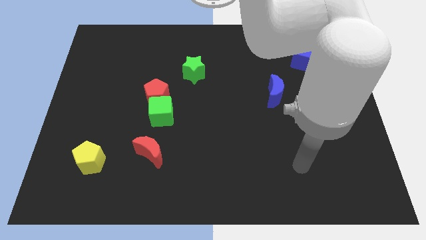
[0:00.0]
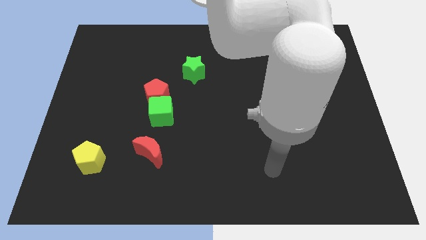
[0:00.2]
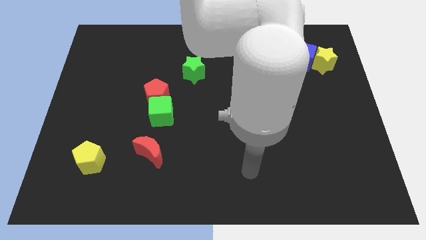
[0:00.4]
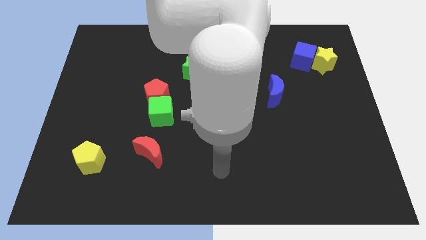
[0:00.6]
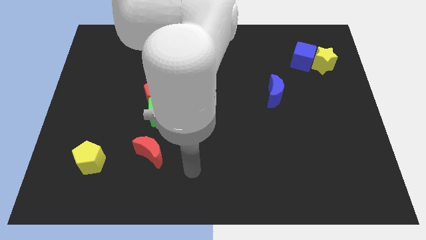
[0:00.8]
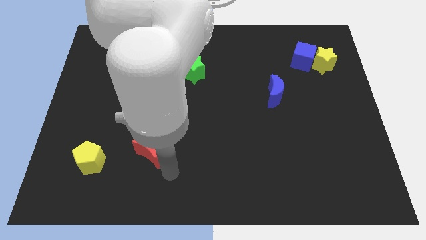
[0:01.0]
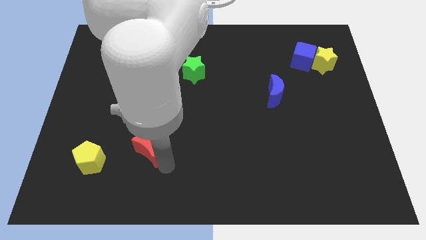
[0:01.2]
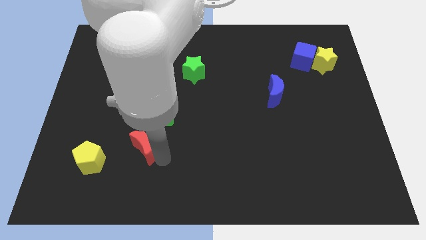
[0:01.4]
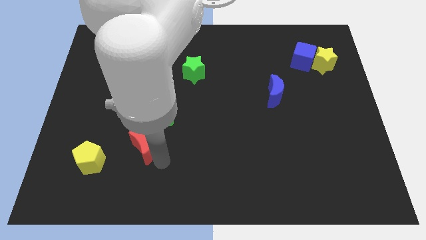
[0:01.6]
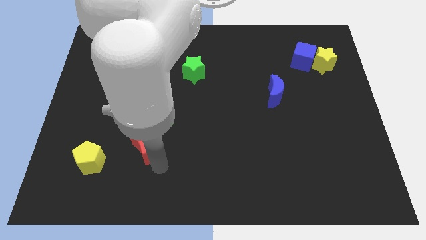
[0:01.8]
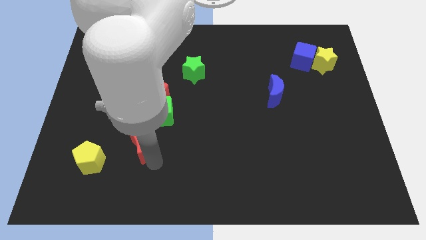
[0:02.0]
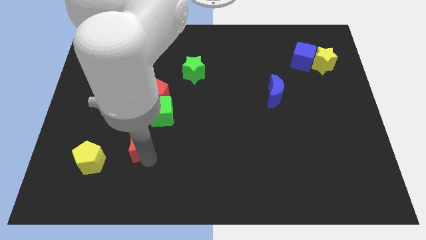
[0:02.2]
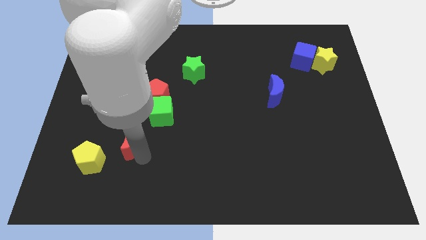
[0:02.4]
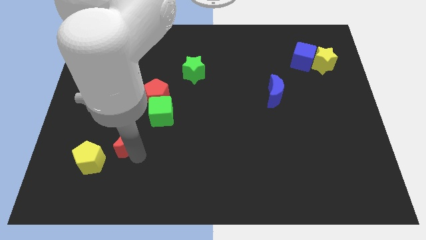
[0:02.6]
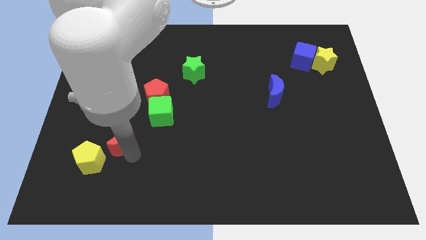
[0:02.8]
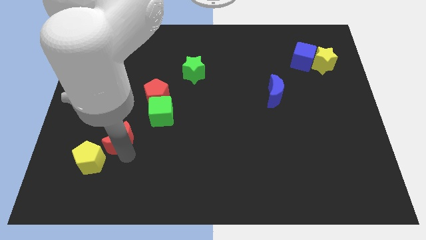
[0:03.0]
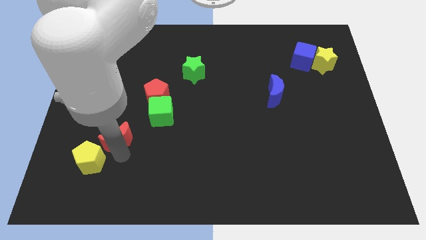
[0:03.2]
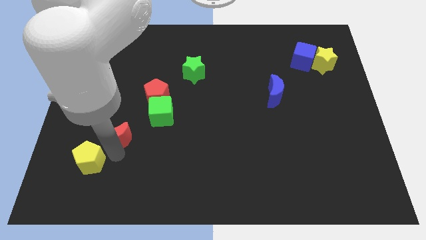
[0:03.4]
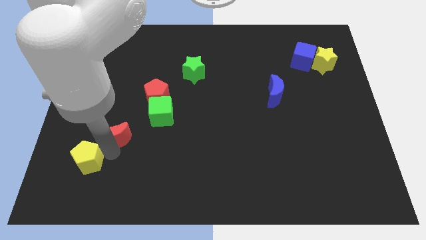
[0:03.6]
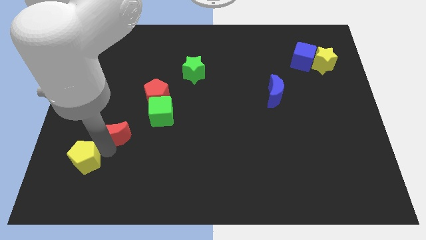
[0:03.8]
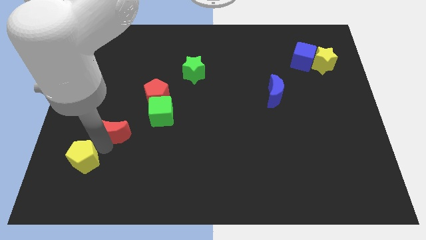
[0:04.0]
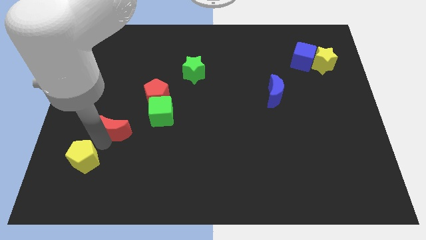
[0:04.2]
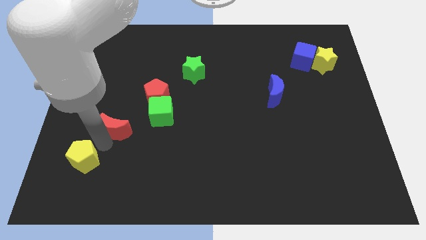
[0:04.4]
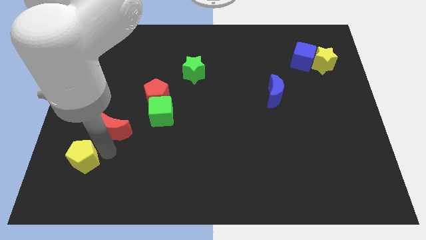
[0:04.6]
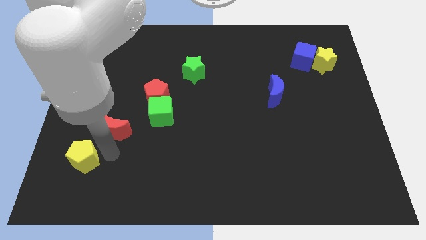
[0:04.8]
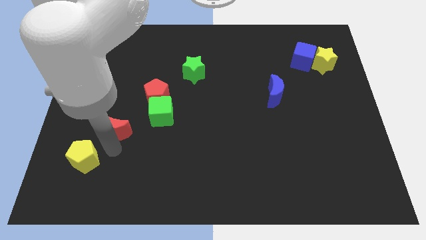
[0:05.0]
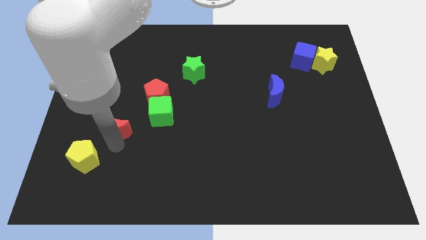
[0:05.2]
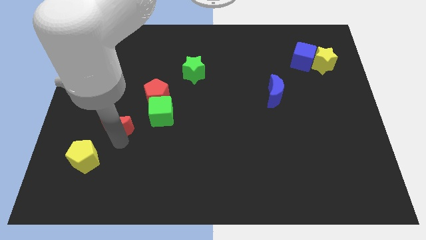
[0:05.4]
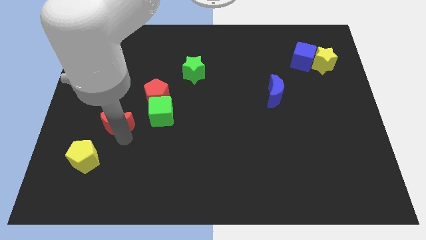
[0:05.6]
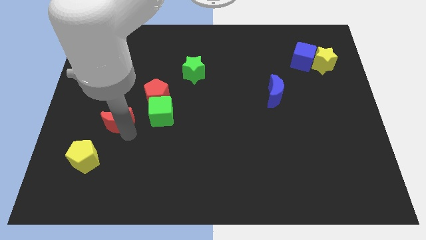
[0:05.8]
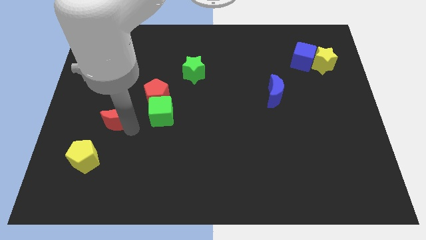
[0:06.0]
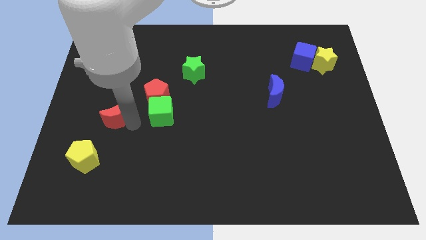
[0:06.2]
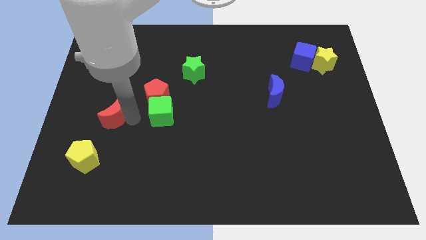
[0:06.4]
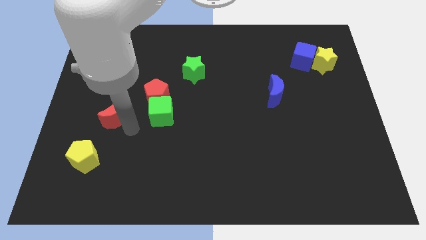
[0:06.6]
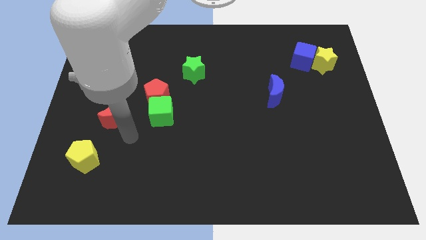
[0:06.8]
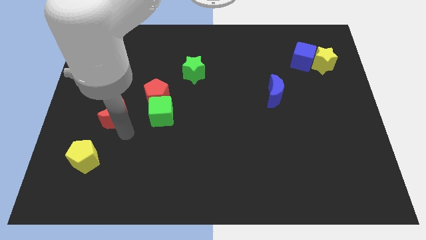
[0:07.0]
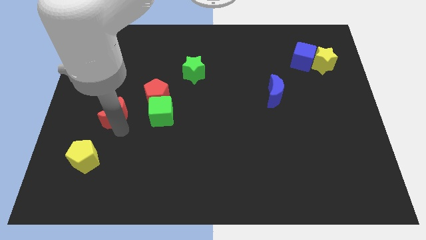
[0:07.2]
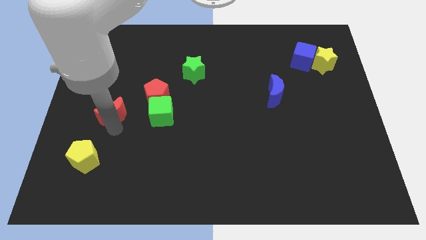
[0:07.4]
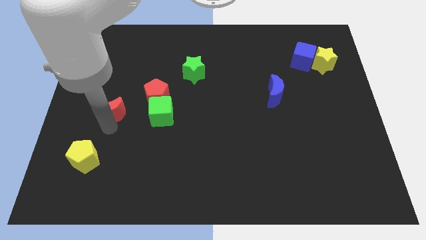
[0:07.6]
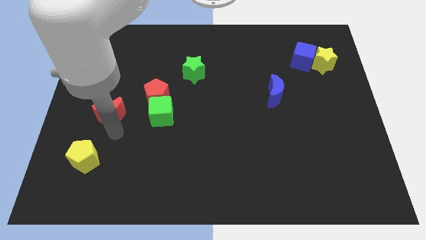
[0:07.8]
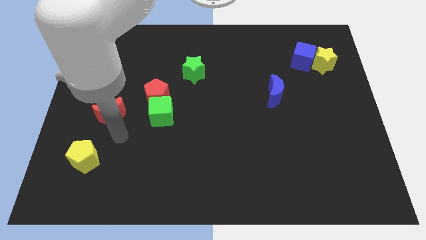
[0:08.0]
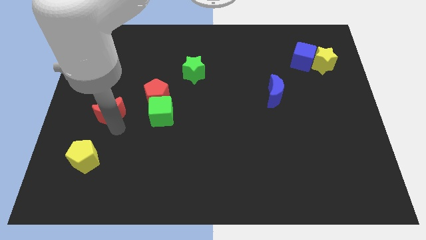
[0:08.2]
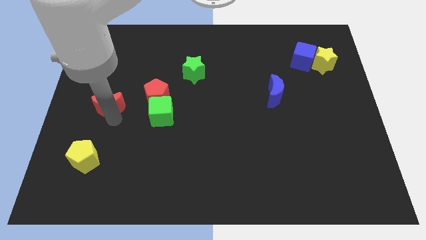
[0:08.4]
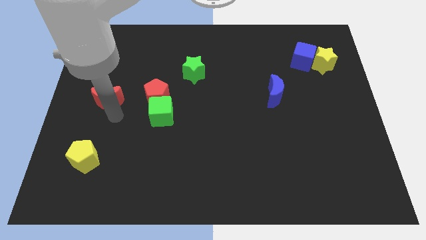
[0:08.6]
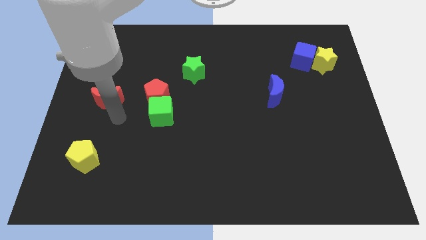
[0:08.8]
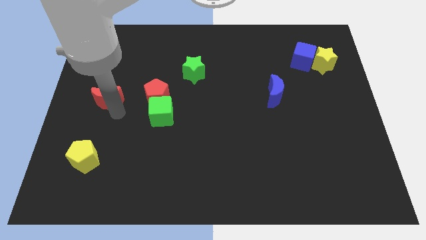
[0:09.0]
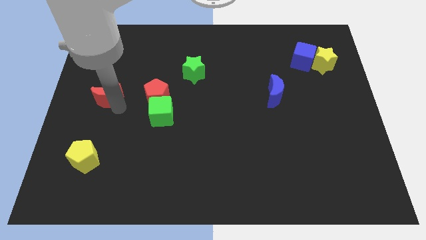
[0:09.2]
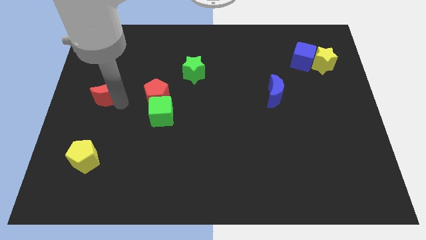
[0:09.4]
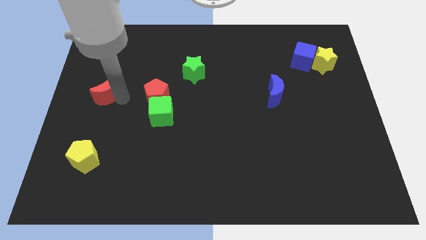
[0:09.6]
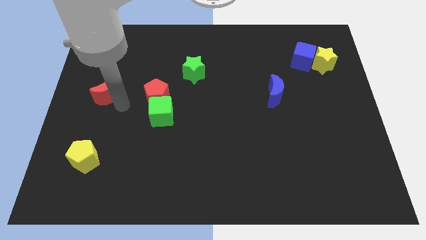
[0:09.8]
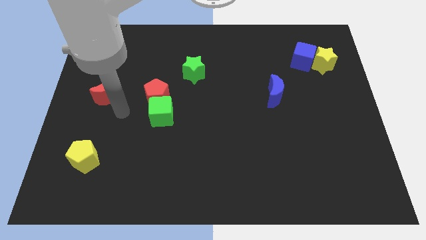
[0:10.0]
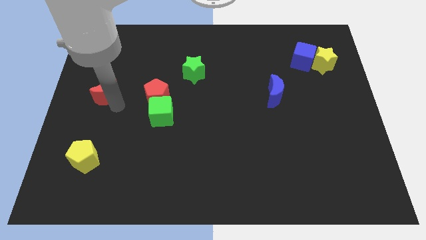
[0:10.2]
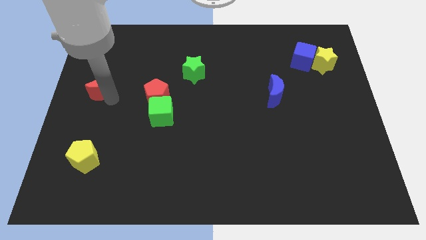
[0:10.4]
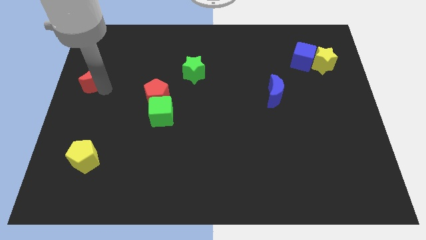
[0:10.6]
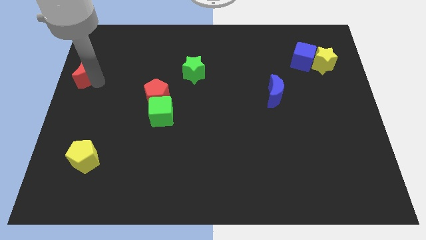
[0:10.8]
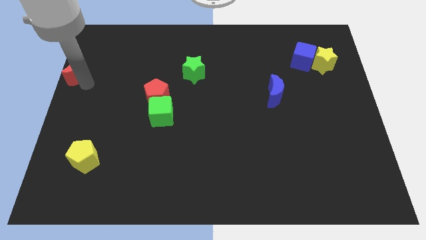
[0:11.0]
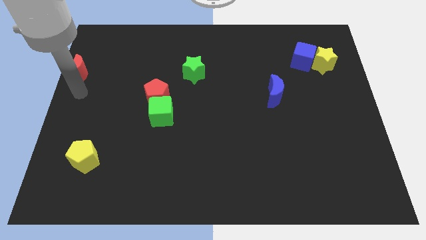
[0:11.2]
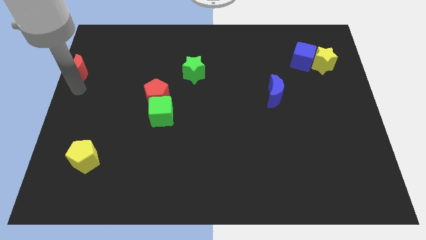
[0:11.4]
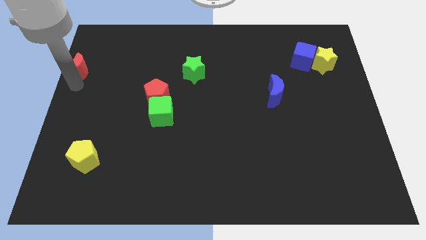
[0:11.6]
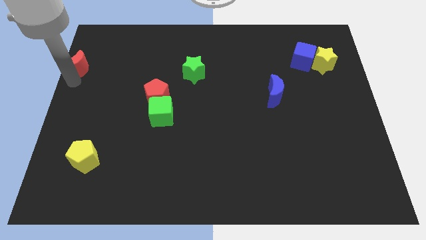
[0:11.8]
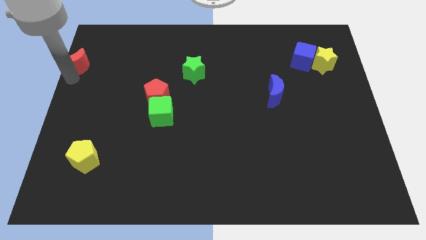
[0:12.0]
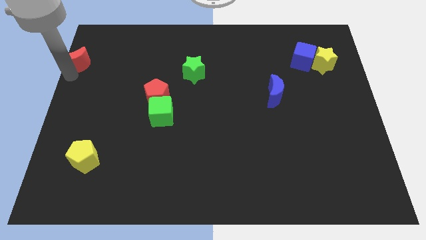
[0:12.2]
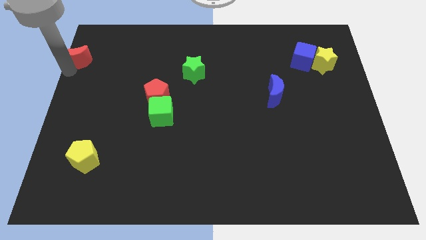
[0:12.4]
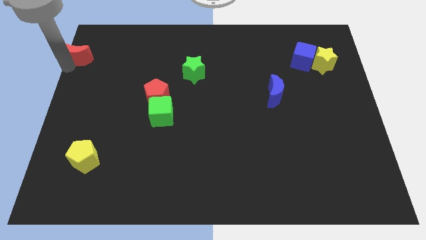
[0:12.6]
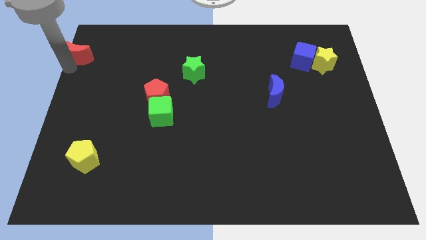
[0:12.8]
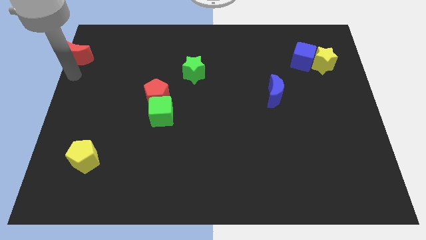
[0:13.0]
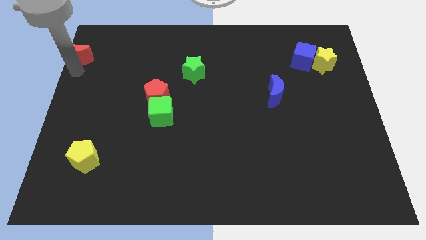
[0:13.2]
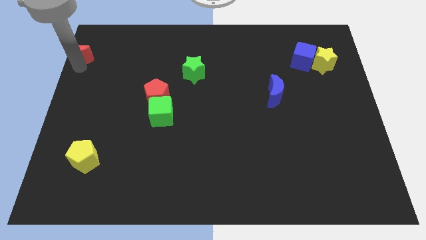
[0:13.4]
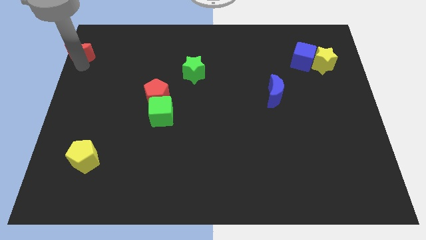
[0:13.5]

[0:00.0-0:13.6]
move the red moon to the upper left corner
